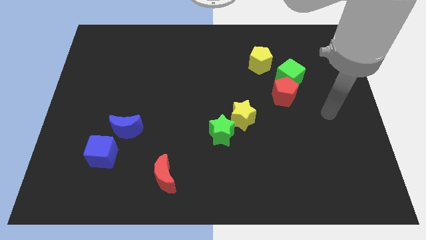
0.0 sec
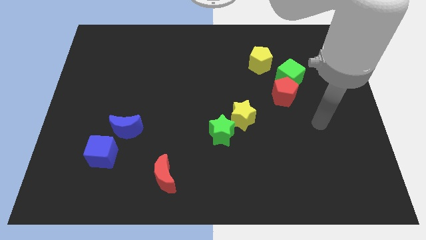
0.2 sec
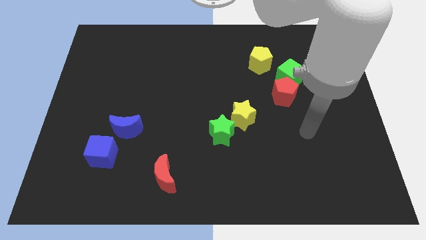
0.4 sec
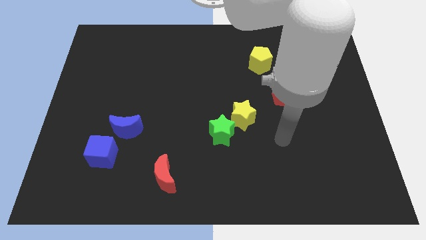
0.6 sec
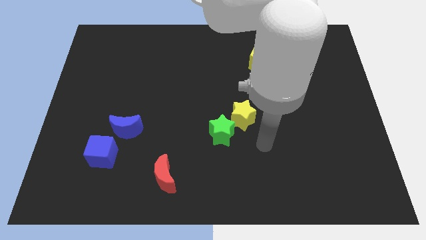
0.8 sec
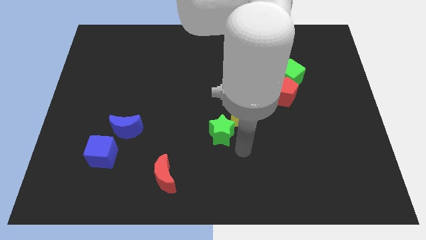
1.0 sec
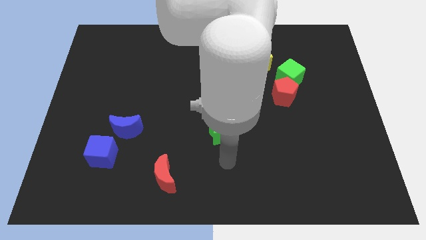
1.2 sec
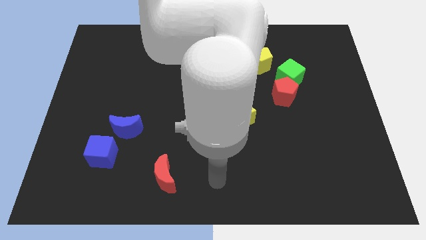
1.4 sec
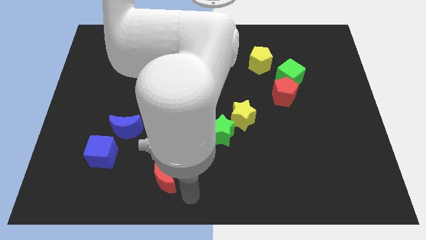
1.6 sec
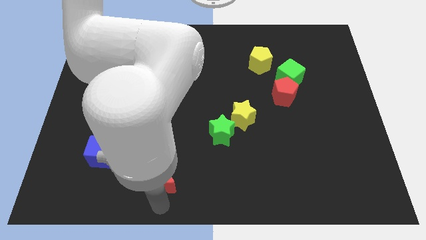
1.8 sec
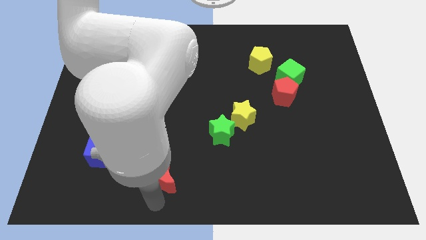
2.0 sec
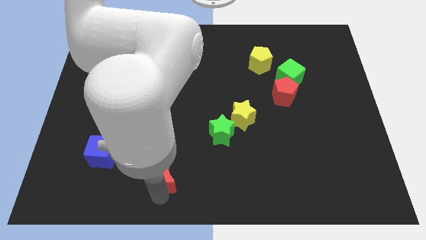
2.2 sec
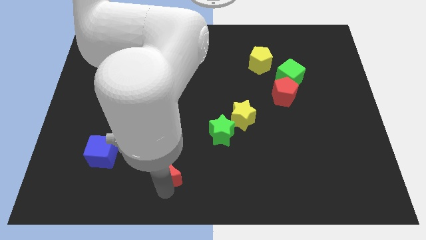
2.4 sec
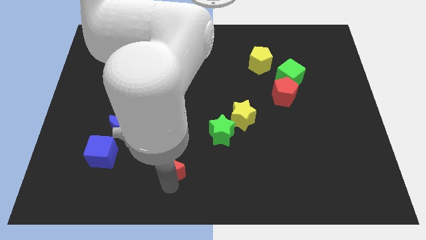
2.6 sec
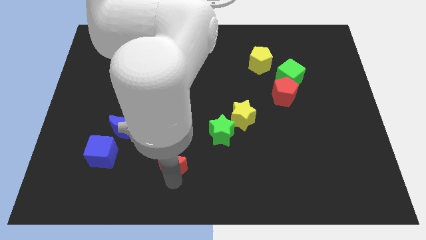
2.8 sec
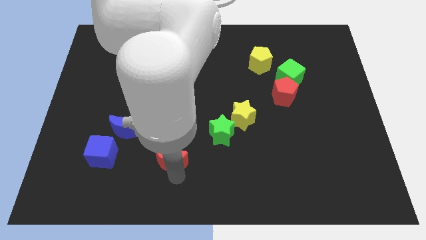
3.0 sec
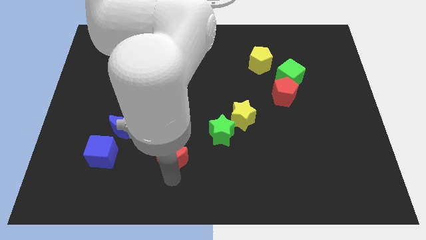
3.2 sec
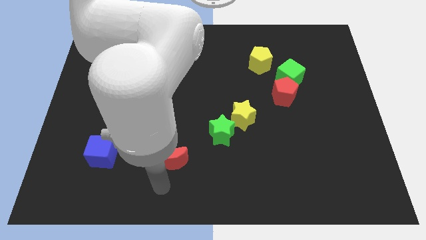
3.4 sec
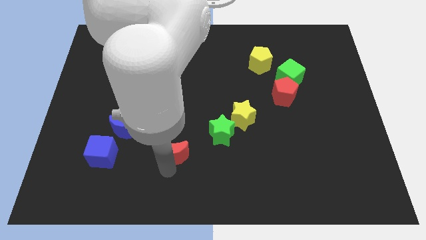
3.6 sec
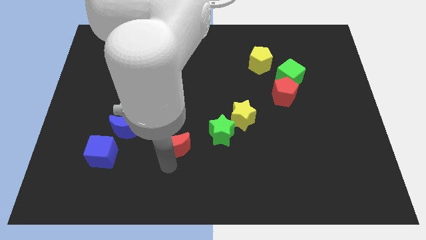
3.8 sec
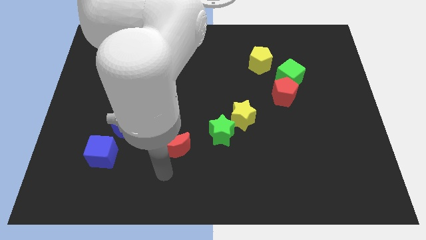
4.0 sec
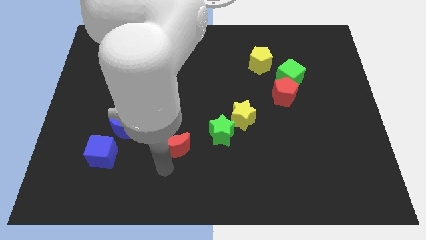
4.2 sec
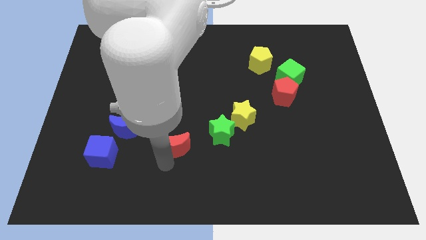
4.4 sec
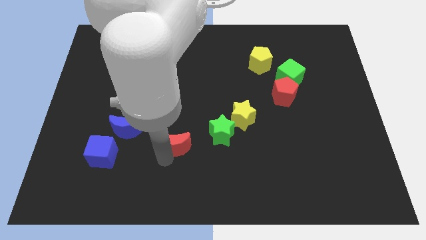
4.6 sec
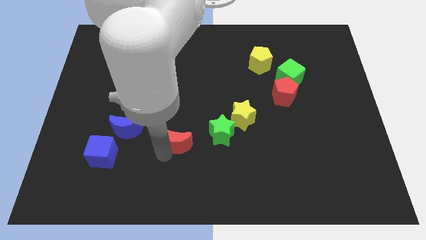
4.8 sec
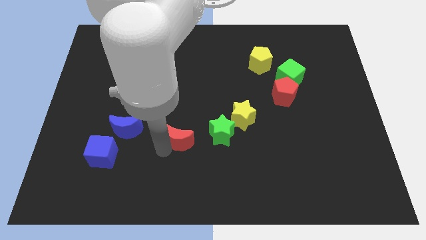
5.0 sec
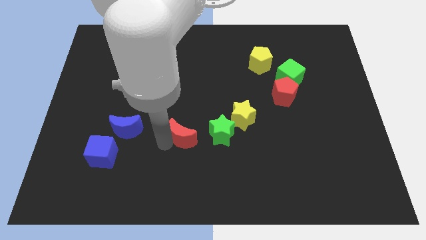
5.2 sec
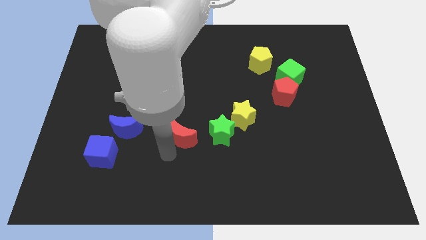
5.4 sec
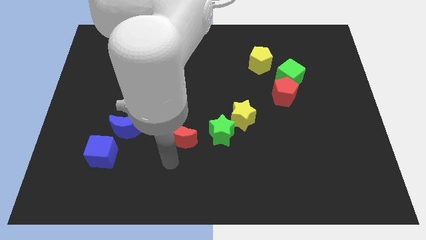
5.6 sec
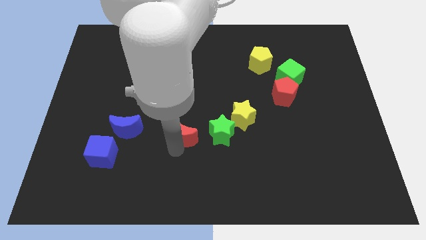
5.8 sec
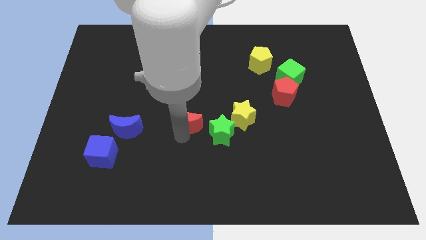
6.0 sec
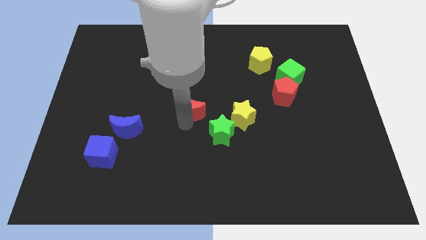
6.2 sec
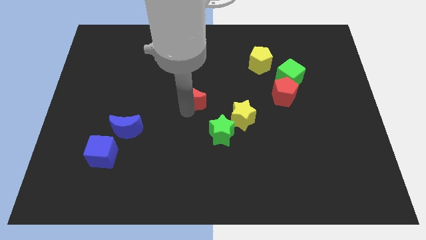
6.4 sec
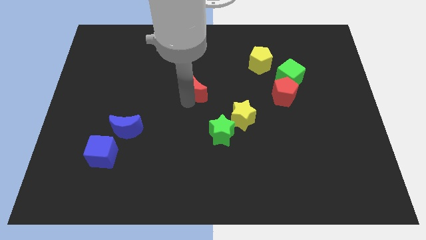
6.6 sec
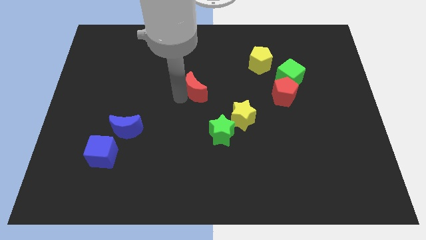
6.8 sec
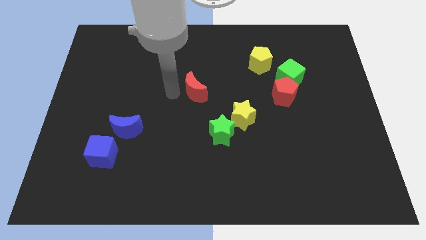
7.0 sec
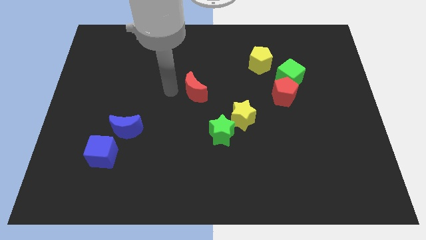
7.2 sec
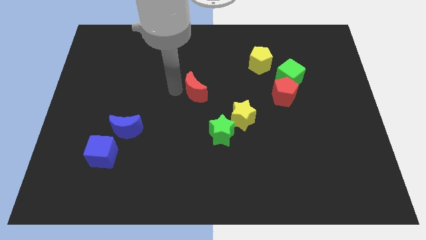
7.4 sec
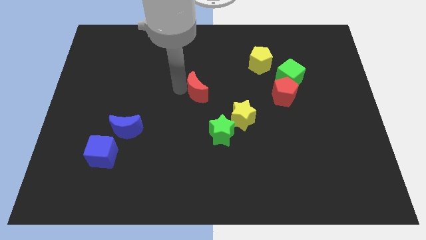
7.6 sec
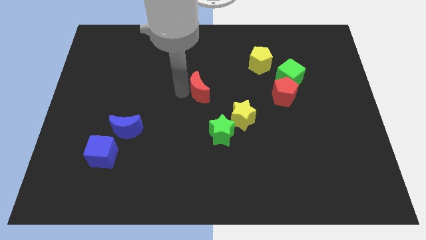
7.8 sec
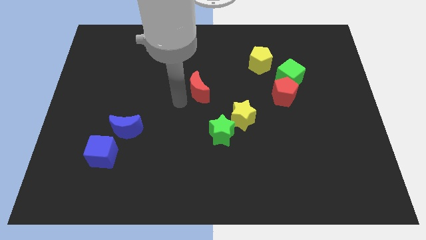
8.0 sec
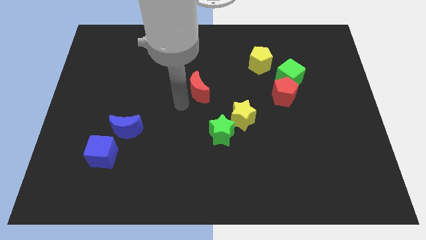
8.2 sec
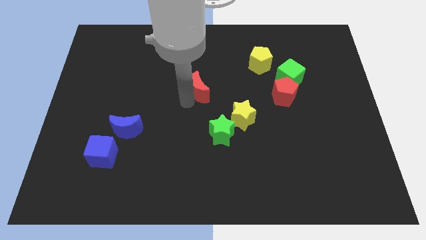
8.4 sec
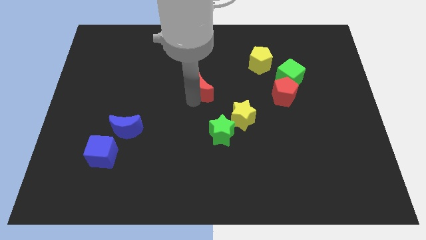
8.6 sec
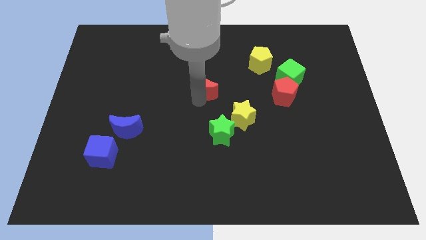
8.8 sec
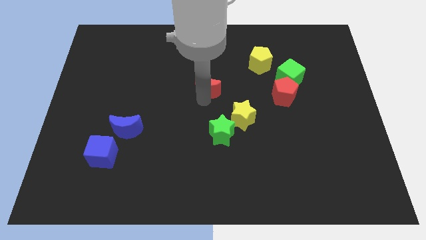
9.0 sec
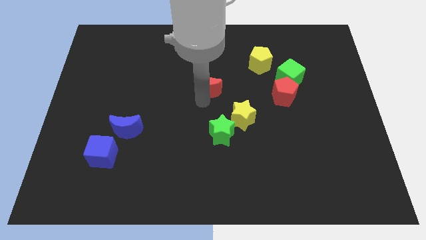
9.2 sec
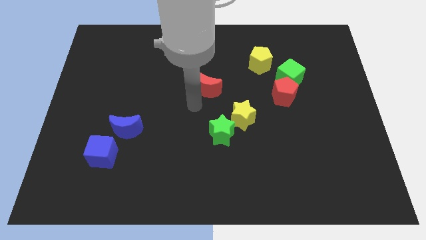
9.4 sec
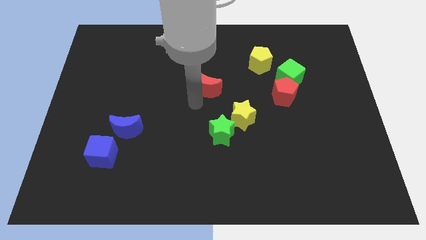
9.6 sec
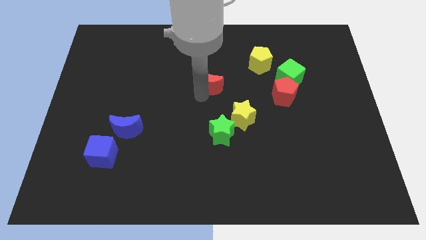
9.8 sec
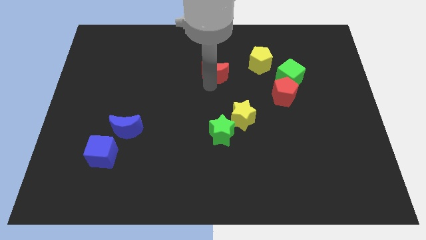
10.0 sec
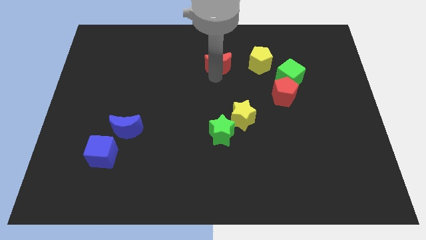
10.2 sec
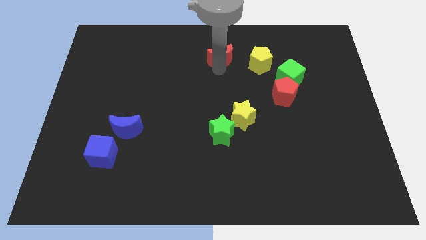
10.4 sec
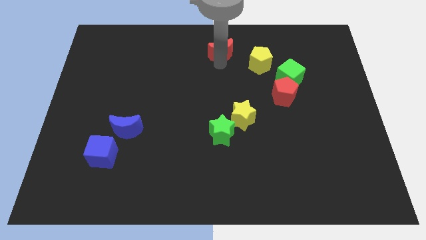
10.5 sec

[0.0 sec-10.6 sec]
put the red moon to the towards your base
